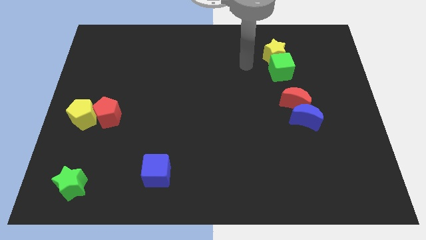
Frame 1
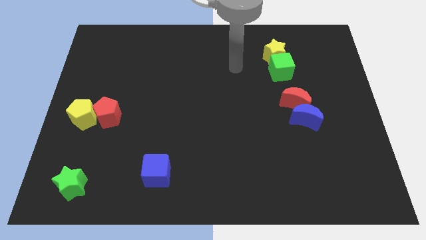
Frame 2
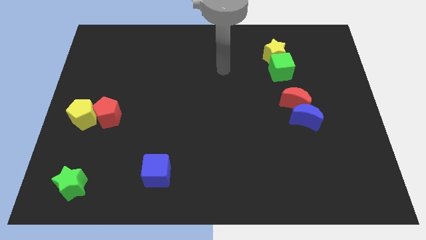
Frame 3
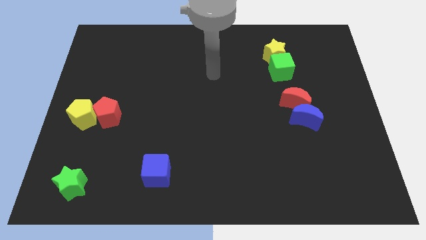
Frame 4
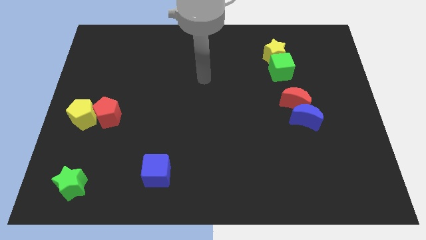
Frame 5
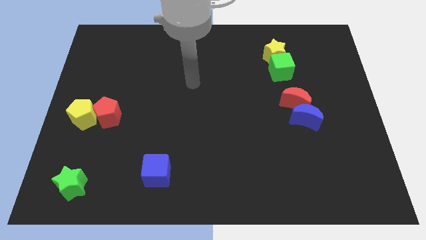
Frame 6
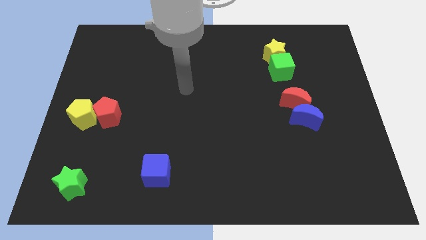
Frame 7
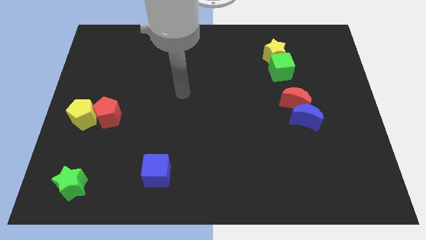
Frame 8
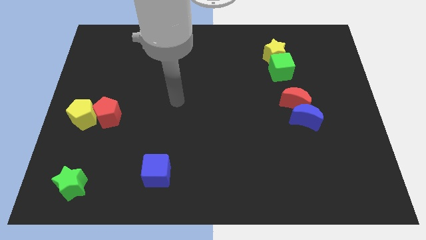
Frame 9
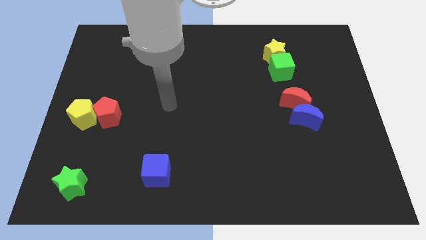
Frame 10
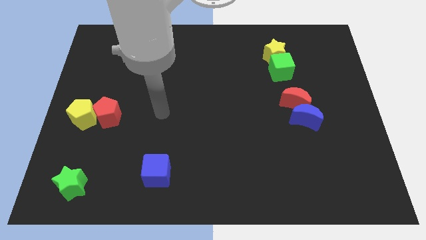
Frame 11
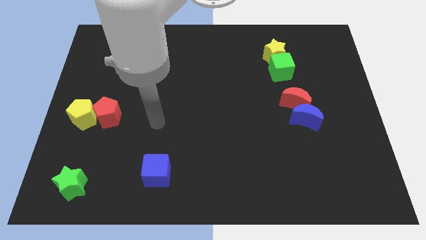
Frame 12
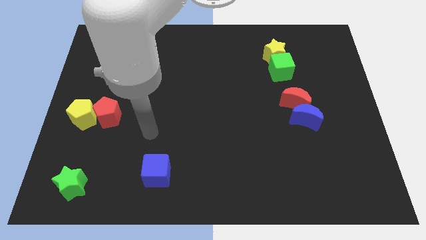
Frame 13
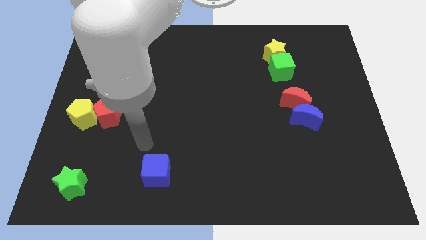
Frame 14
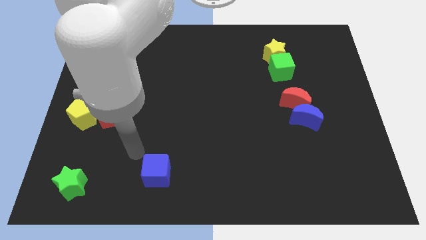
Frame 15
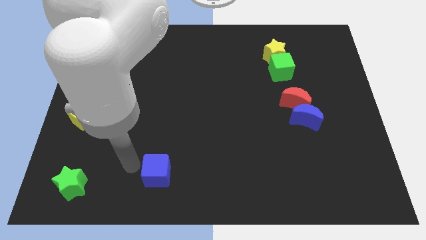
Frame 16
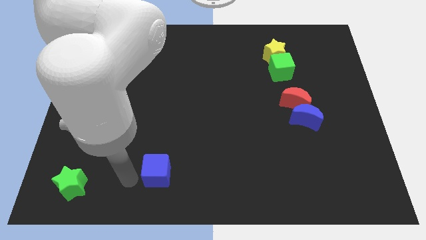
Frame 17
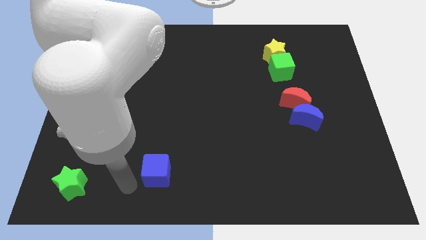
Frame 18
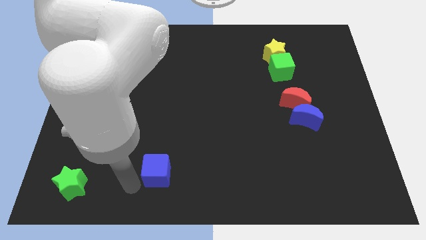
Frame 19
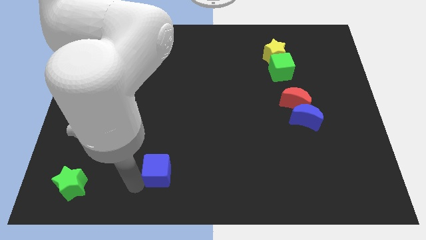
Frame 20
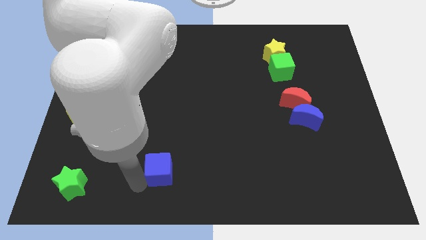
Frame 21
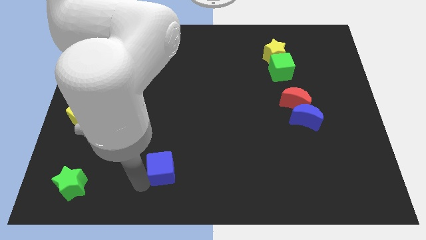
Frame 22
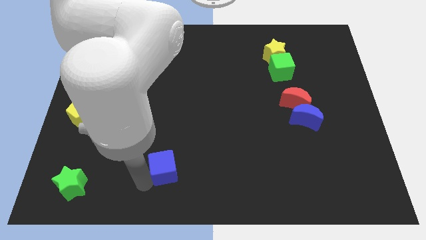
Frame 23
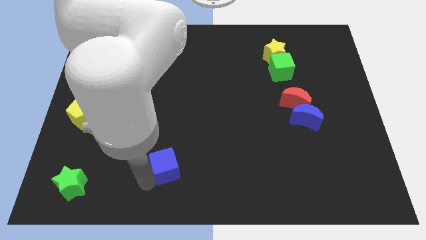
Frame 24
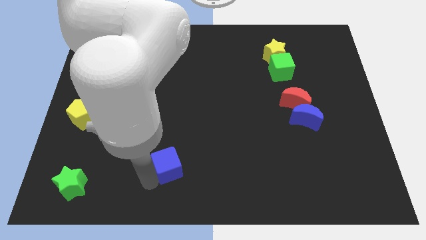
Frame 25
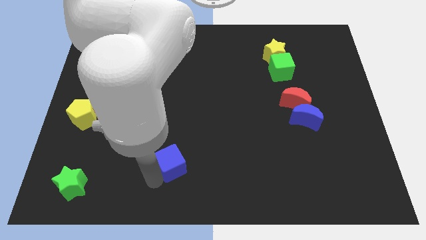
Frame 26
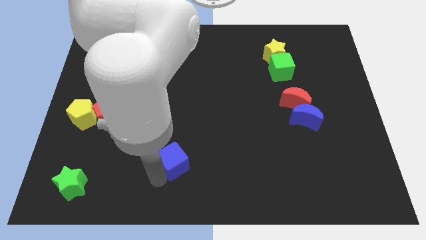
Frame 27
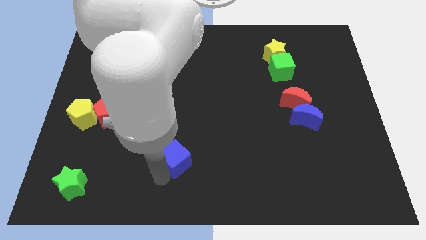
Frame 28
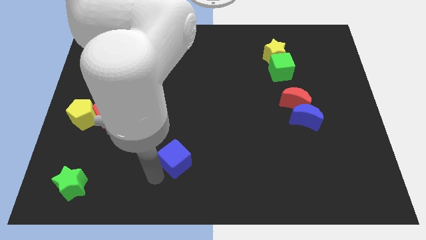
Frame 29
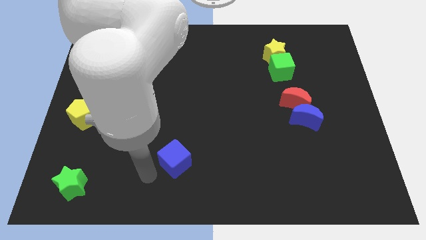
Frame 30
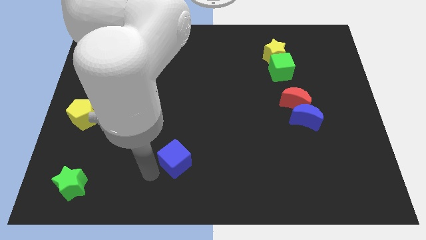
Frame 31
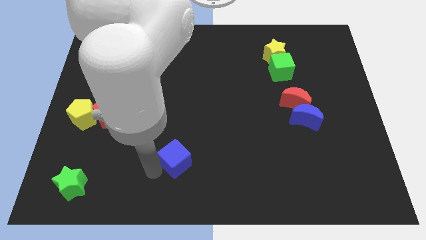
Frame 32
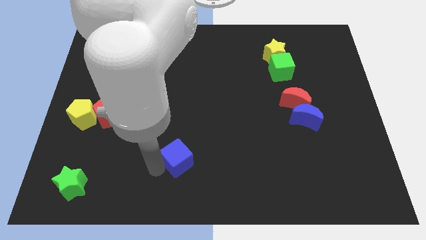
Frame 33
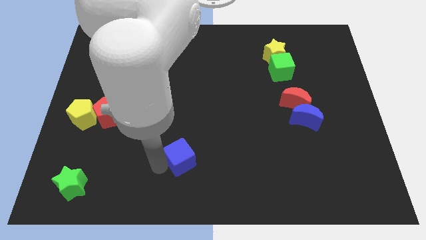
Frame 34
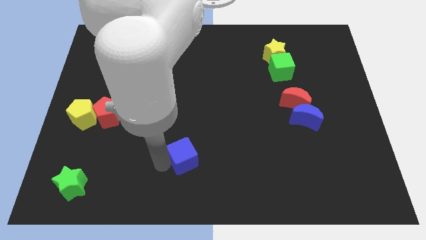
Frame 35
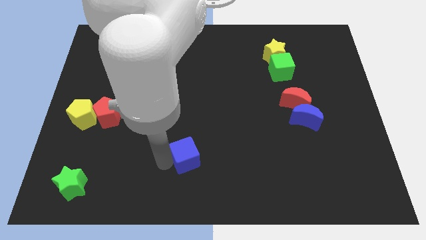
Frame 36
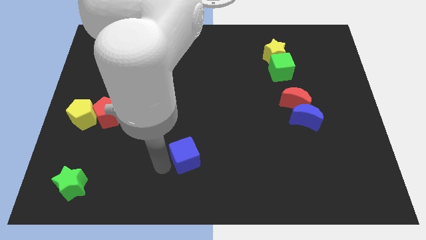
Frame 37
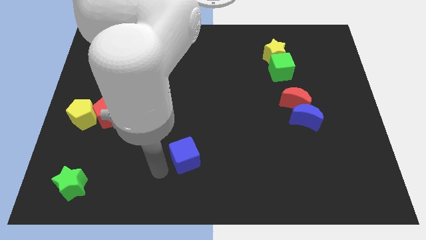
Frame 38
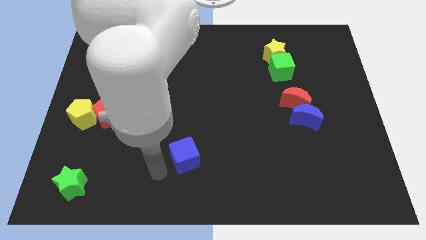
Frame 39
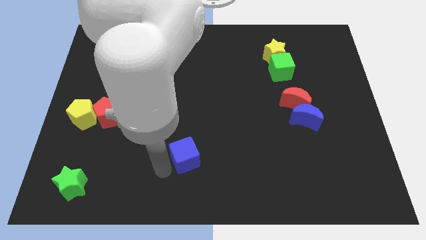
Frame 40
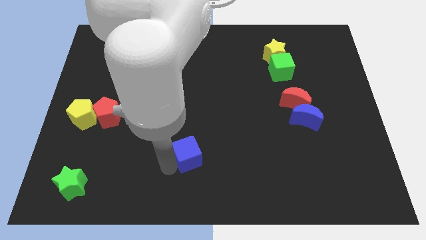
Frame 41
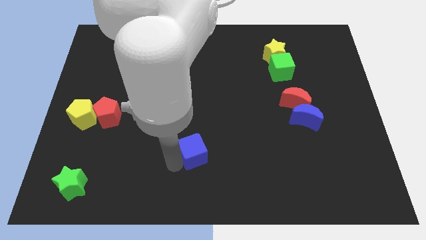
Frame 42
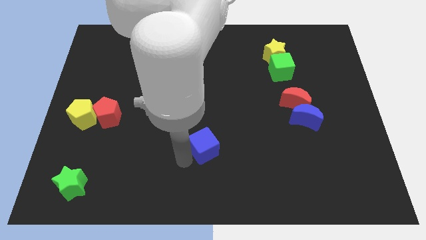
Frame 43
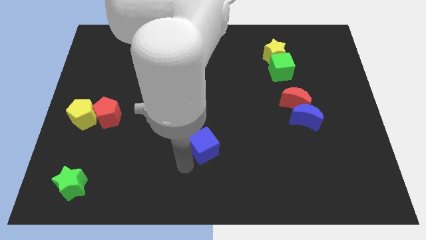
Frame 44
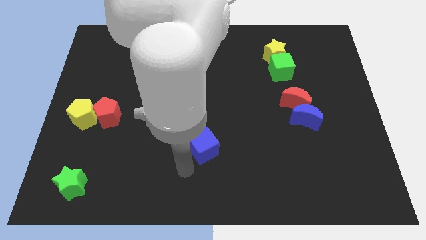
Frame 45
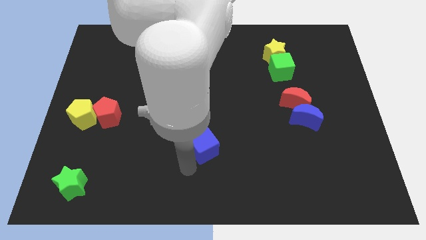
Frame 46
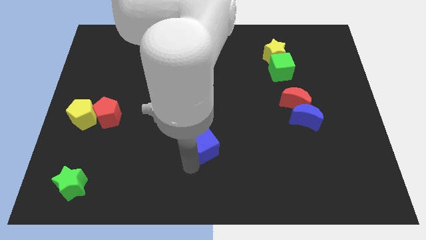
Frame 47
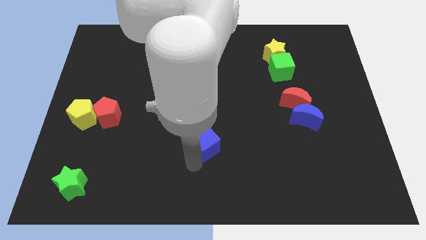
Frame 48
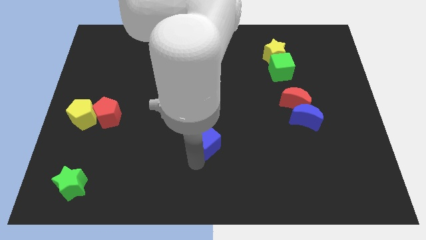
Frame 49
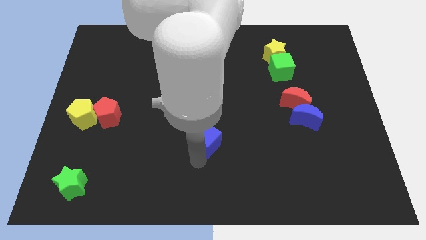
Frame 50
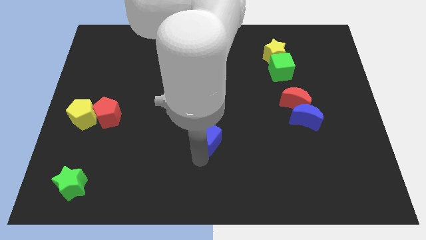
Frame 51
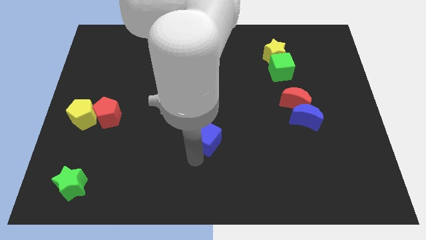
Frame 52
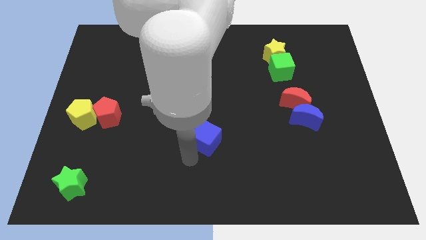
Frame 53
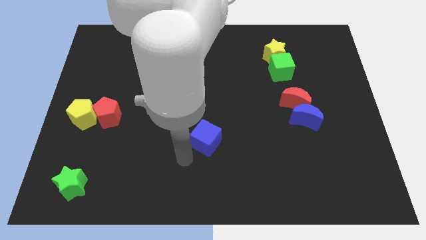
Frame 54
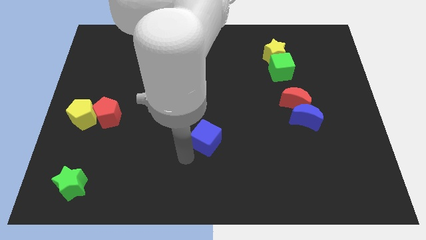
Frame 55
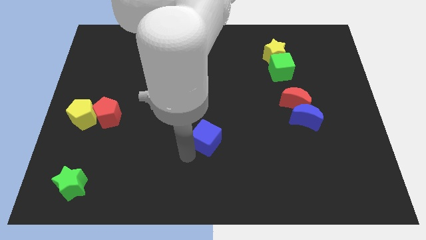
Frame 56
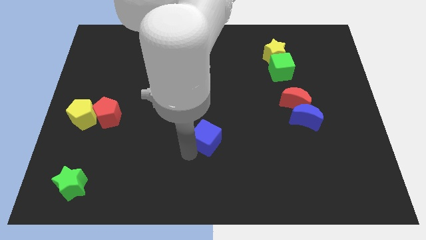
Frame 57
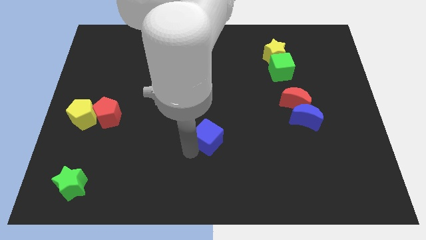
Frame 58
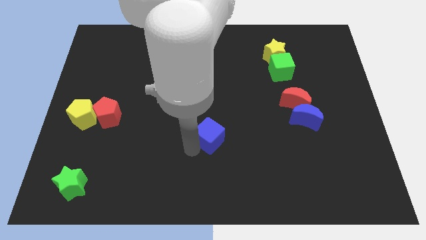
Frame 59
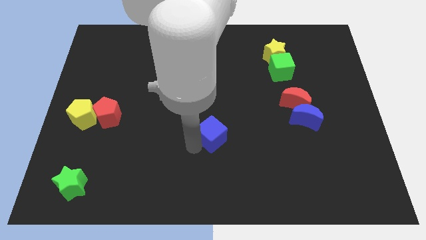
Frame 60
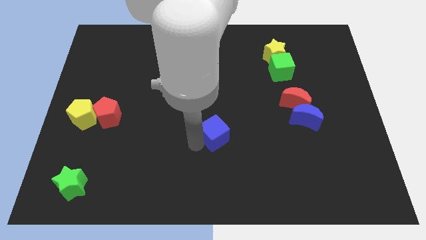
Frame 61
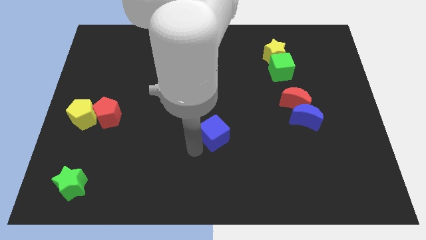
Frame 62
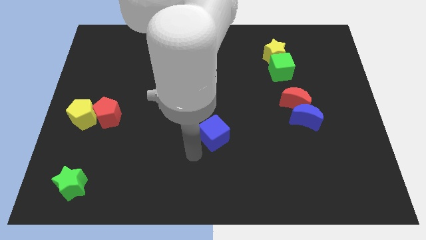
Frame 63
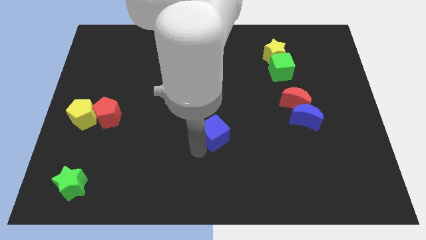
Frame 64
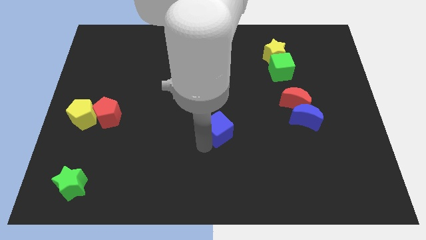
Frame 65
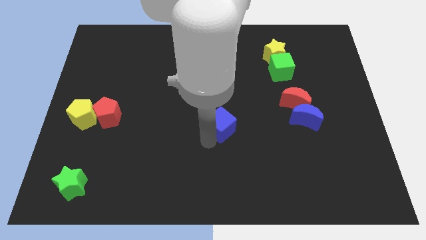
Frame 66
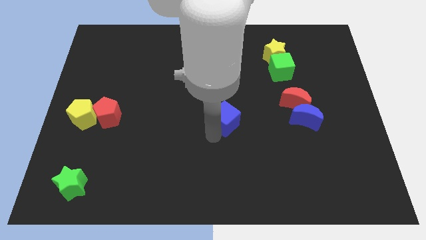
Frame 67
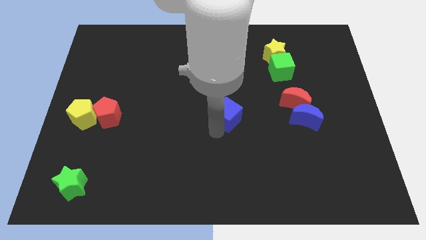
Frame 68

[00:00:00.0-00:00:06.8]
push the blue cube diagonally up and to the right

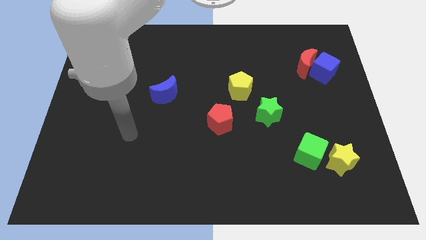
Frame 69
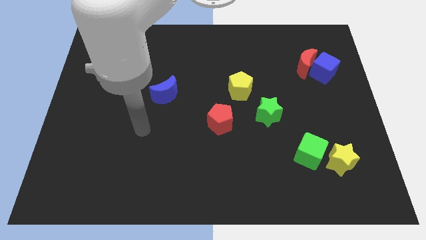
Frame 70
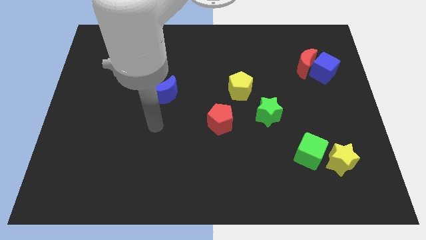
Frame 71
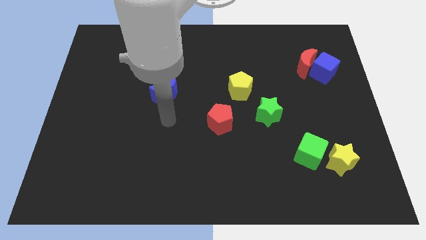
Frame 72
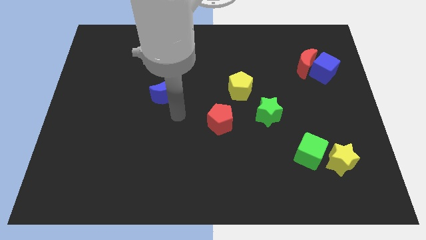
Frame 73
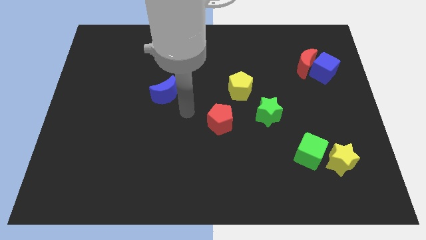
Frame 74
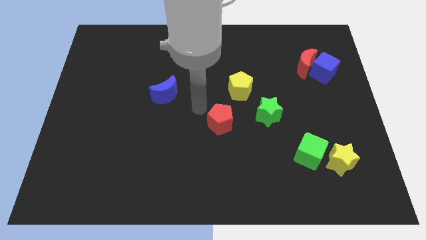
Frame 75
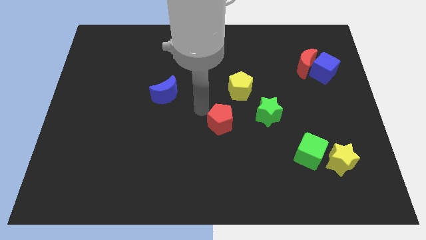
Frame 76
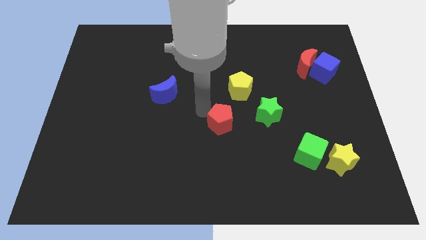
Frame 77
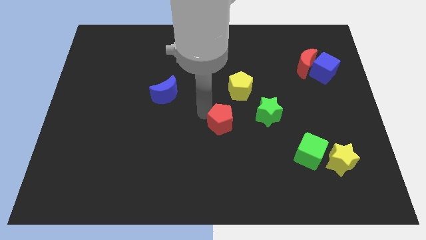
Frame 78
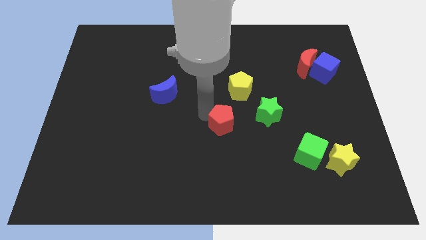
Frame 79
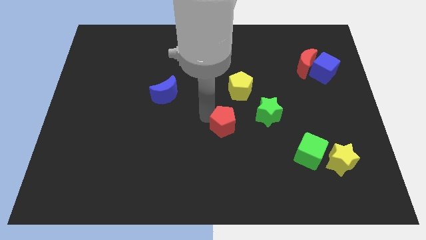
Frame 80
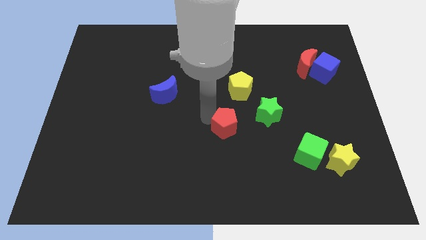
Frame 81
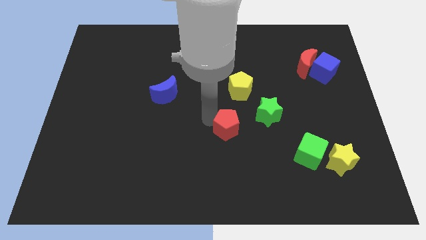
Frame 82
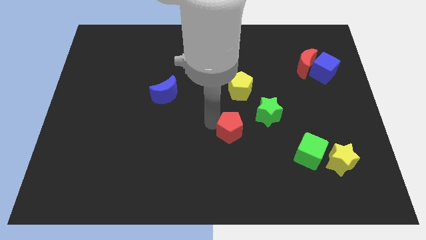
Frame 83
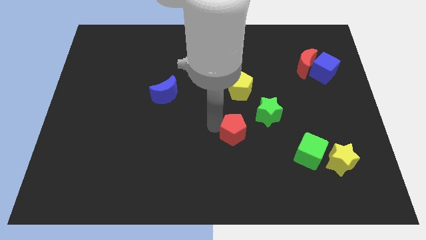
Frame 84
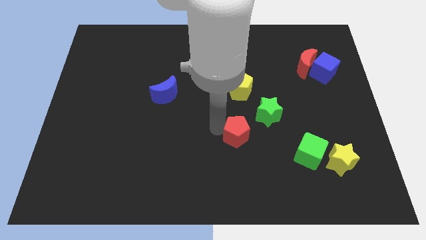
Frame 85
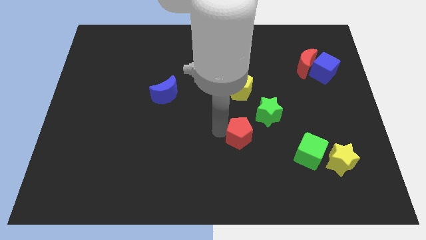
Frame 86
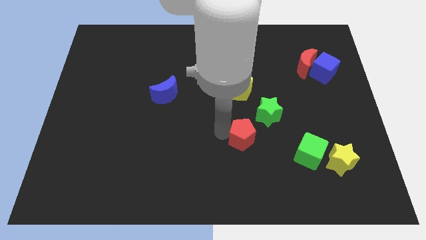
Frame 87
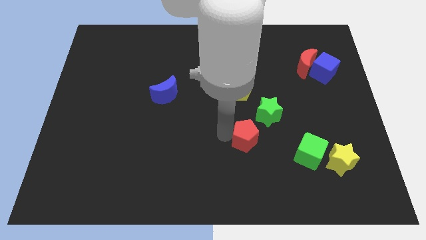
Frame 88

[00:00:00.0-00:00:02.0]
push the red pentagon a little bit down and right
